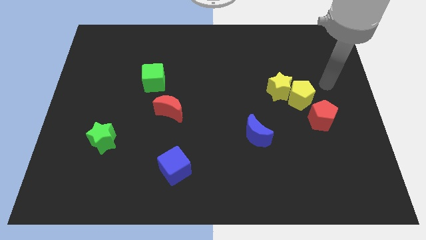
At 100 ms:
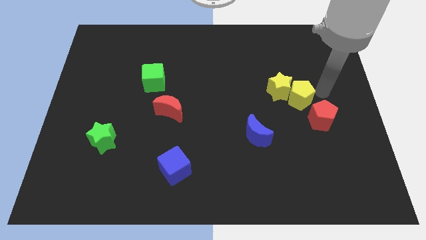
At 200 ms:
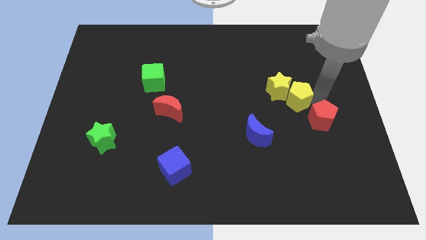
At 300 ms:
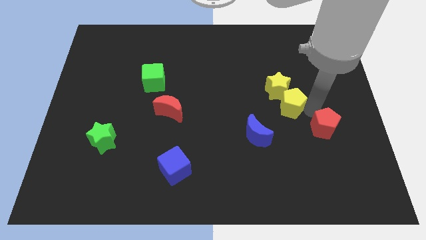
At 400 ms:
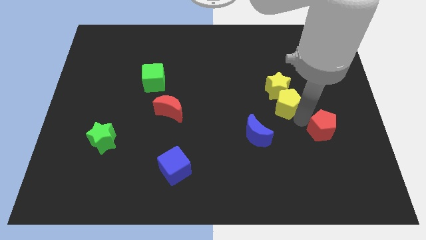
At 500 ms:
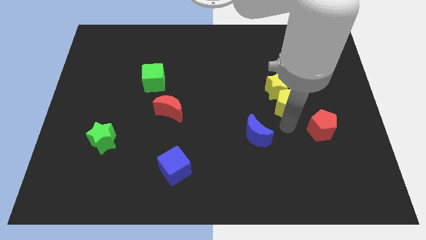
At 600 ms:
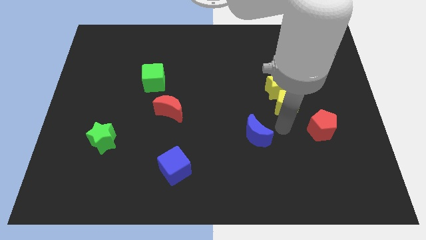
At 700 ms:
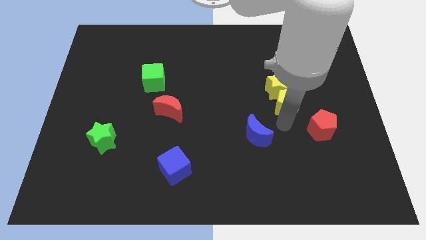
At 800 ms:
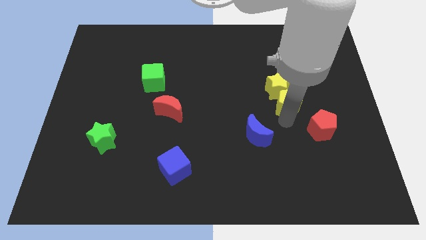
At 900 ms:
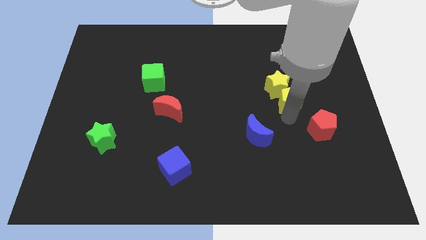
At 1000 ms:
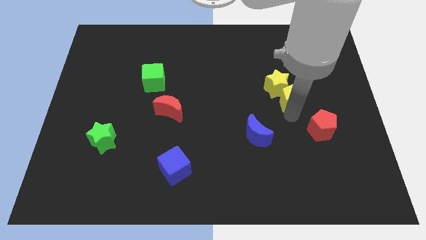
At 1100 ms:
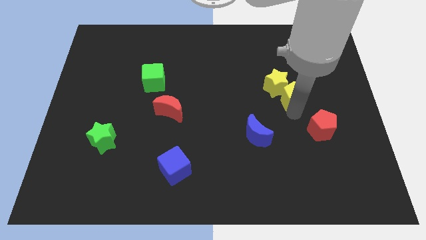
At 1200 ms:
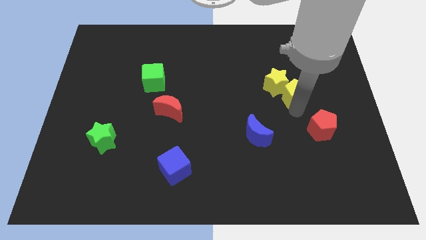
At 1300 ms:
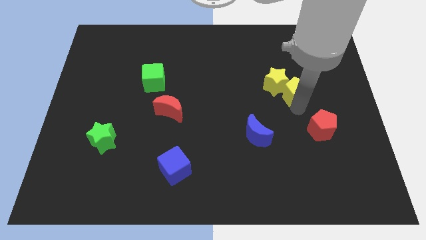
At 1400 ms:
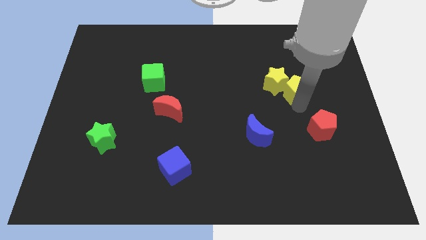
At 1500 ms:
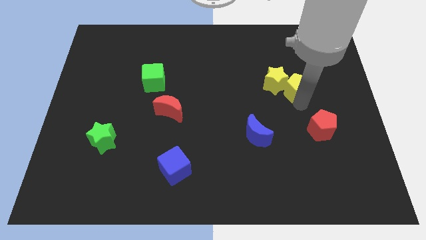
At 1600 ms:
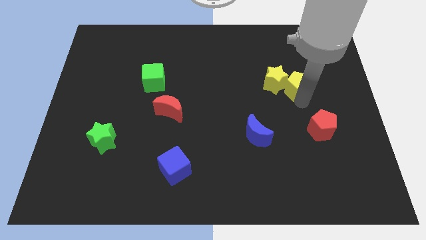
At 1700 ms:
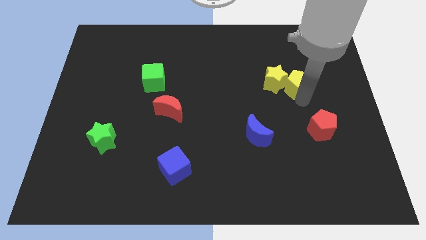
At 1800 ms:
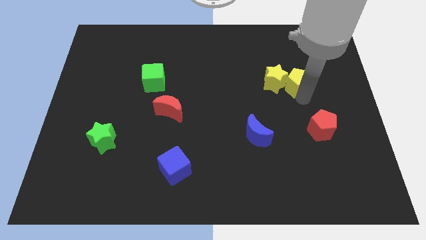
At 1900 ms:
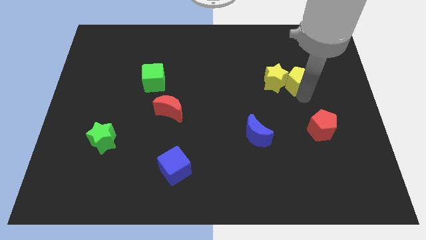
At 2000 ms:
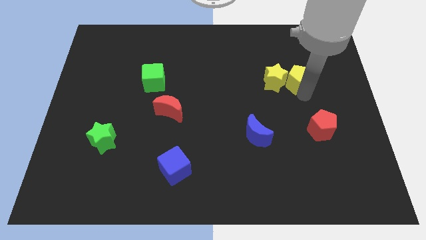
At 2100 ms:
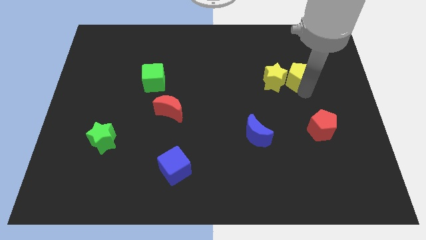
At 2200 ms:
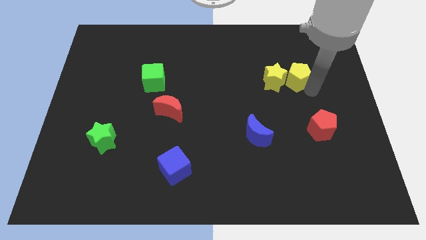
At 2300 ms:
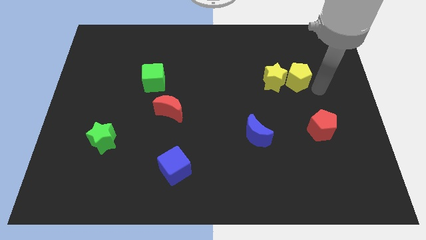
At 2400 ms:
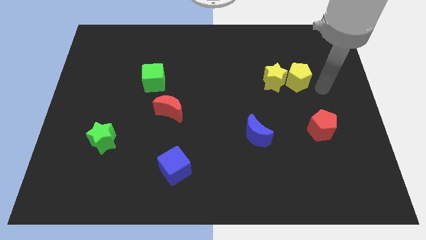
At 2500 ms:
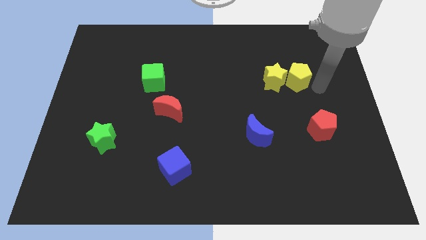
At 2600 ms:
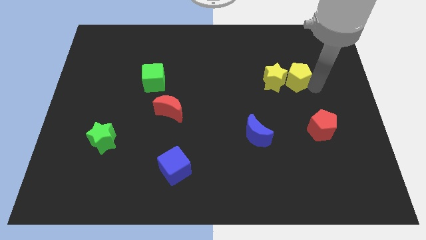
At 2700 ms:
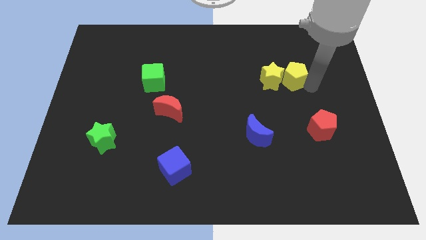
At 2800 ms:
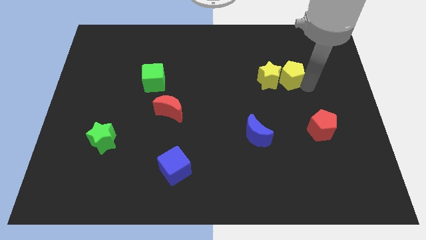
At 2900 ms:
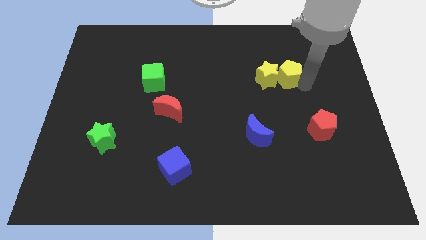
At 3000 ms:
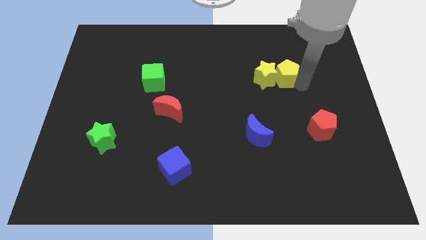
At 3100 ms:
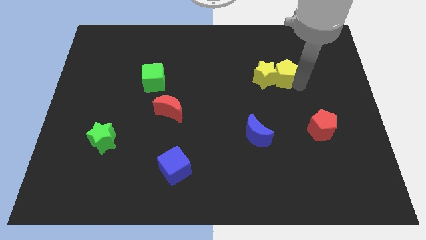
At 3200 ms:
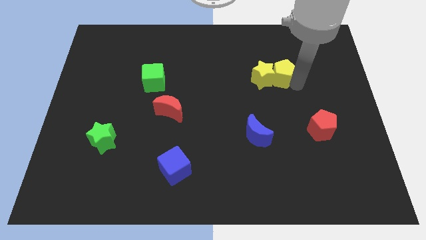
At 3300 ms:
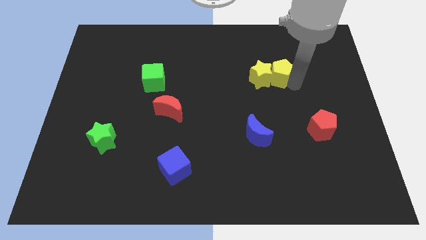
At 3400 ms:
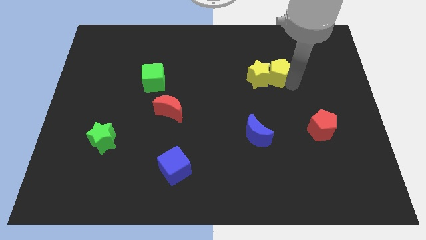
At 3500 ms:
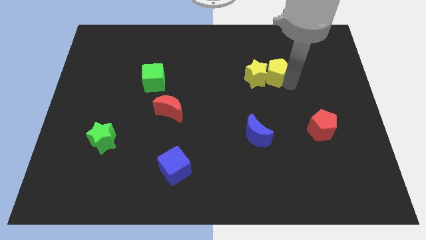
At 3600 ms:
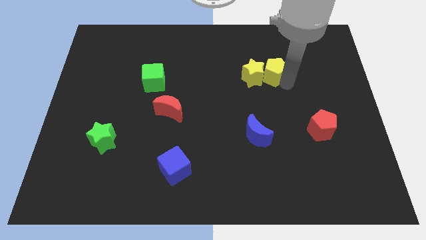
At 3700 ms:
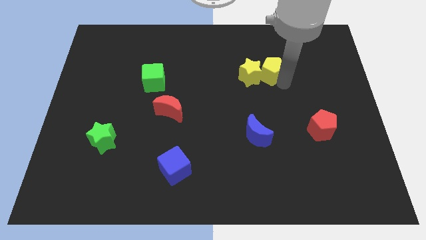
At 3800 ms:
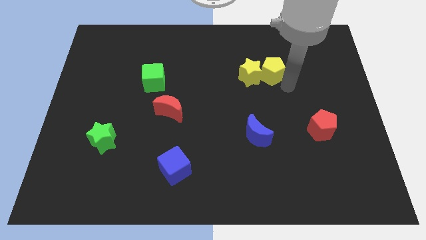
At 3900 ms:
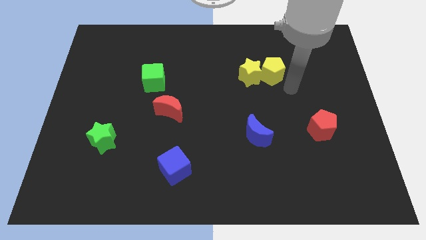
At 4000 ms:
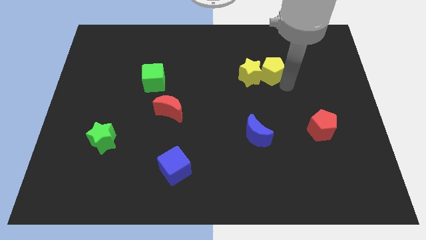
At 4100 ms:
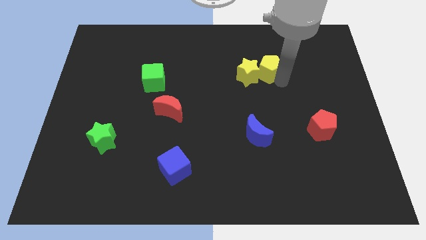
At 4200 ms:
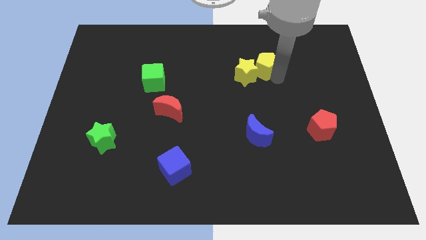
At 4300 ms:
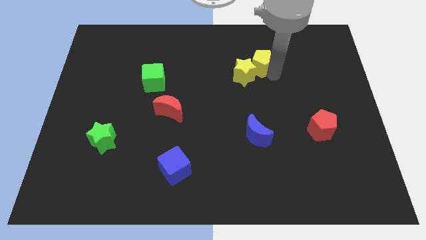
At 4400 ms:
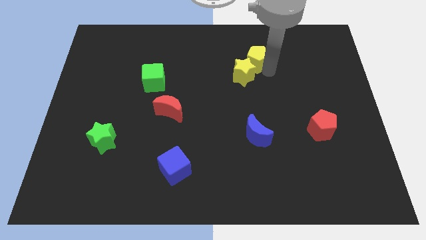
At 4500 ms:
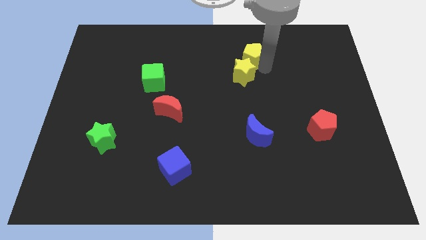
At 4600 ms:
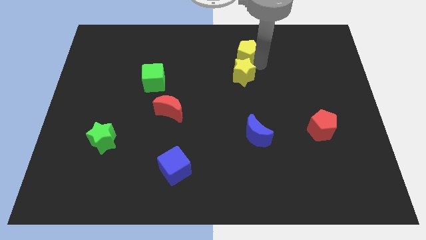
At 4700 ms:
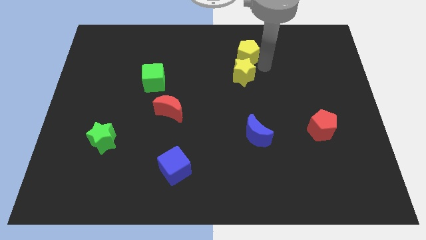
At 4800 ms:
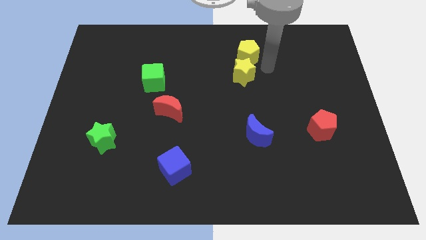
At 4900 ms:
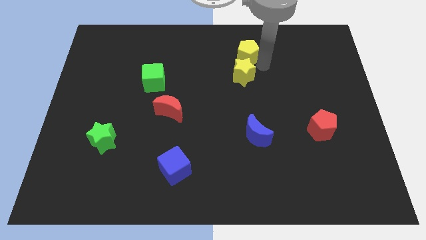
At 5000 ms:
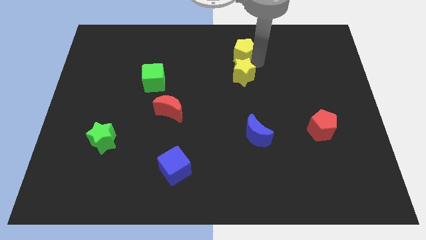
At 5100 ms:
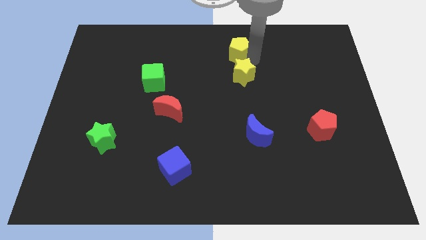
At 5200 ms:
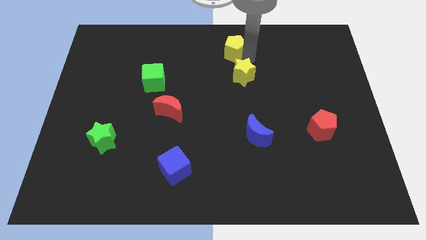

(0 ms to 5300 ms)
push the yellow pentagon to the top side

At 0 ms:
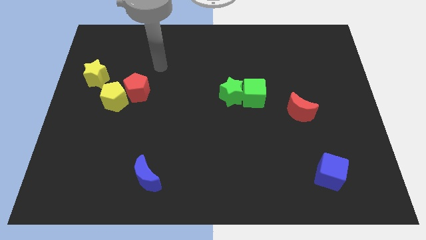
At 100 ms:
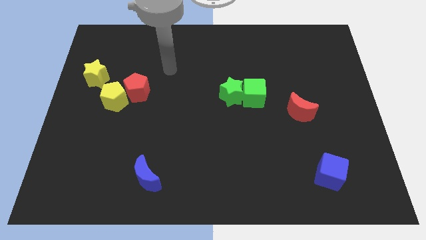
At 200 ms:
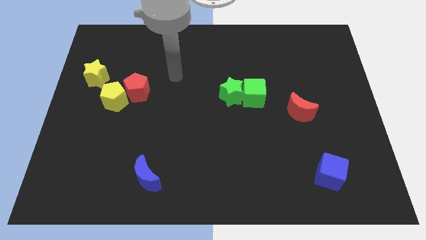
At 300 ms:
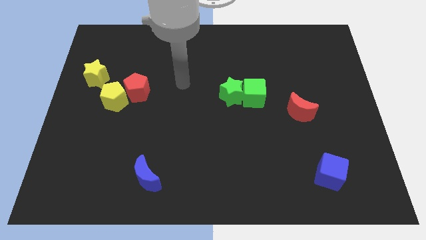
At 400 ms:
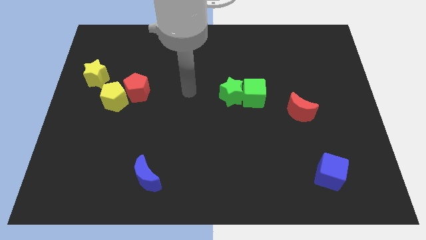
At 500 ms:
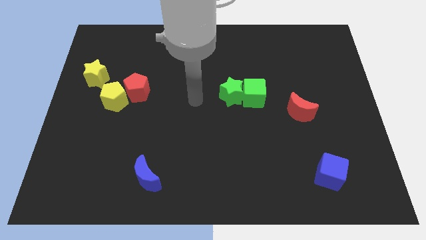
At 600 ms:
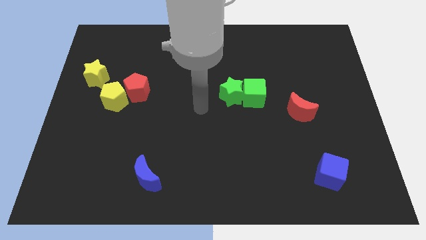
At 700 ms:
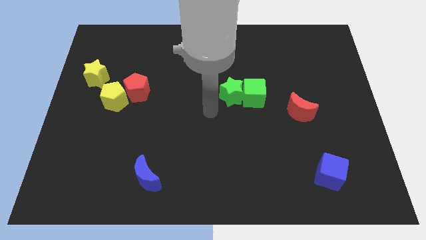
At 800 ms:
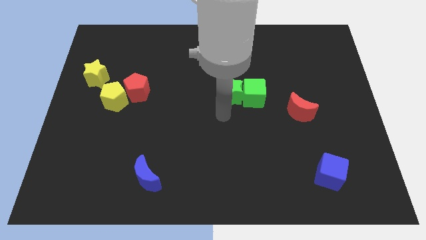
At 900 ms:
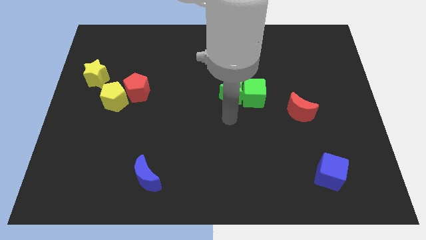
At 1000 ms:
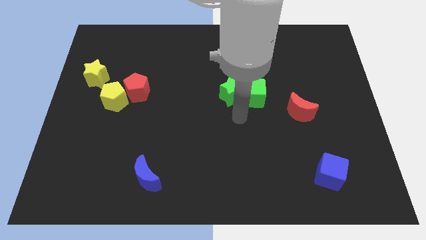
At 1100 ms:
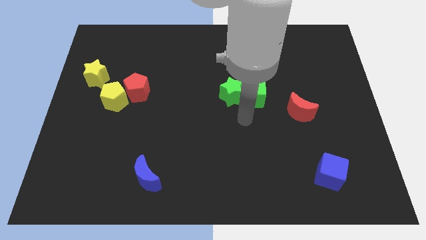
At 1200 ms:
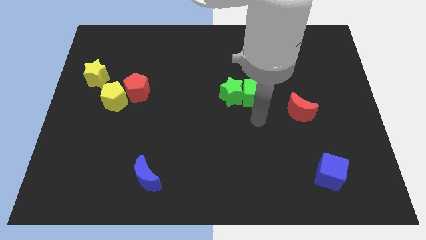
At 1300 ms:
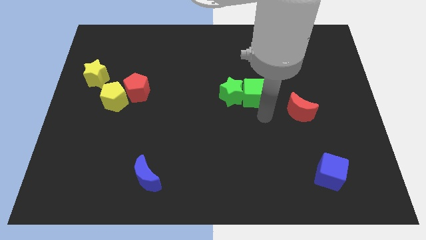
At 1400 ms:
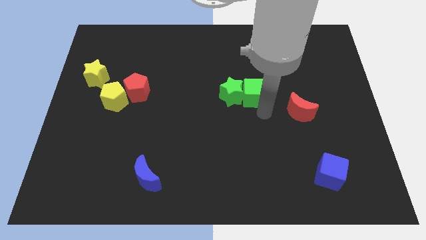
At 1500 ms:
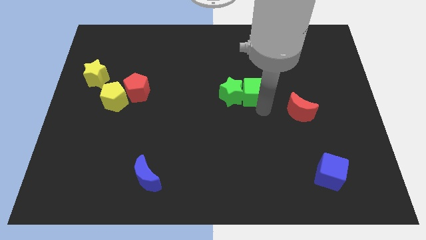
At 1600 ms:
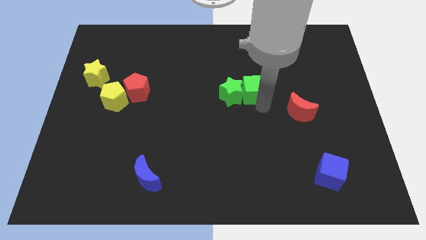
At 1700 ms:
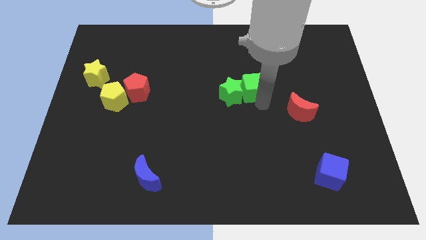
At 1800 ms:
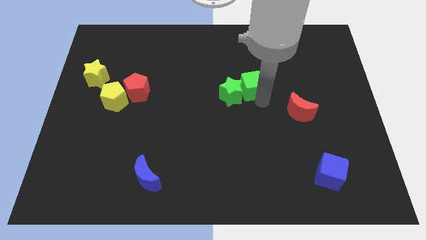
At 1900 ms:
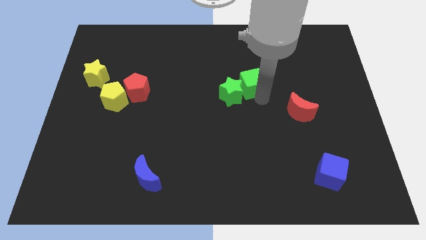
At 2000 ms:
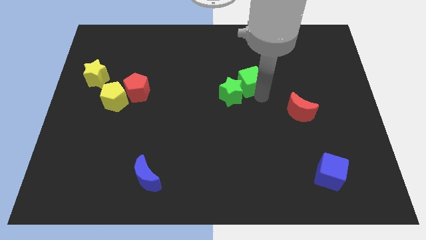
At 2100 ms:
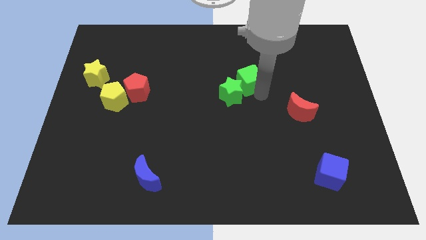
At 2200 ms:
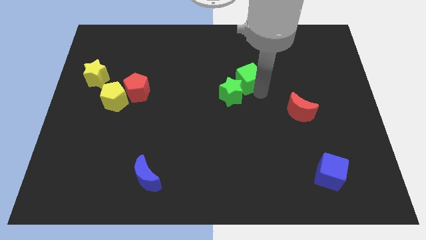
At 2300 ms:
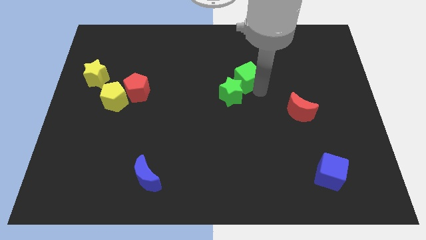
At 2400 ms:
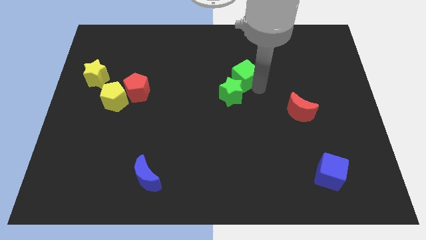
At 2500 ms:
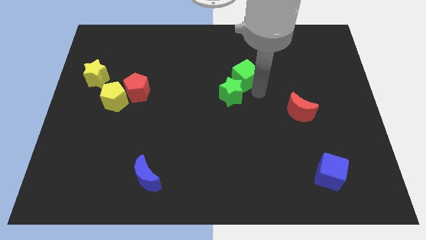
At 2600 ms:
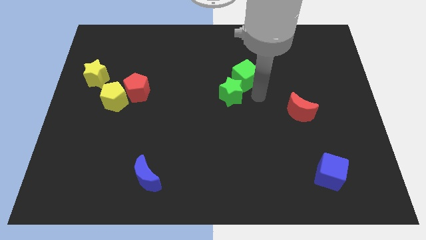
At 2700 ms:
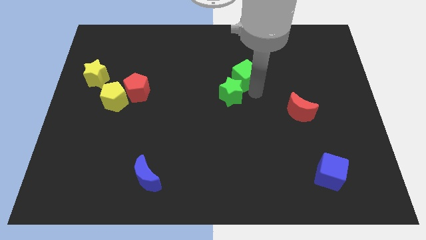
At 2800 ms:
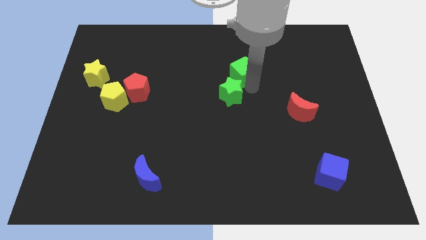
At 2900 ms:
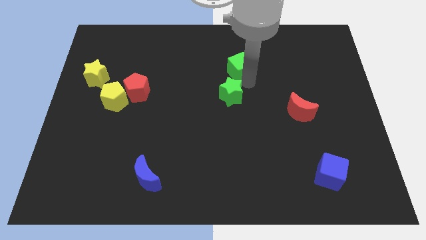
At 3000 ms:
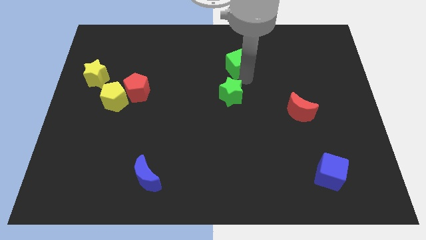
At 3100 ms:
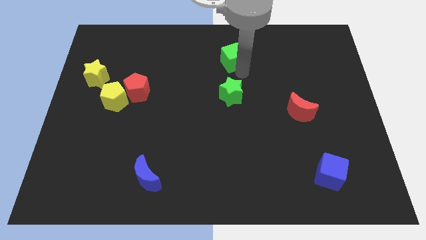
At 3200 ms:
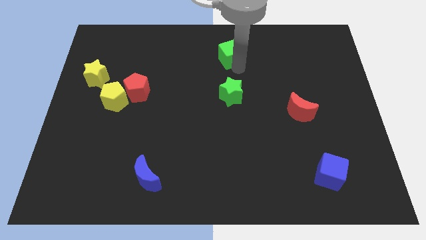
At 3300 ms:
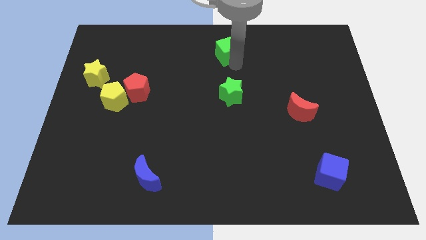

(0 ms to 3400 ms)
push the green cube to the towards your base
